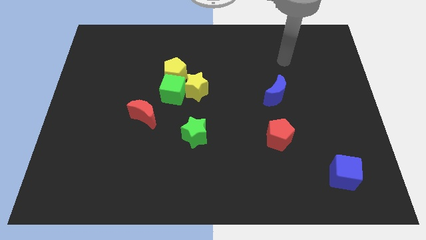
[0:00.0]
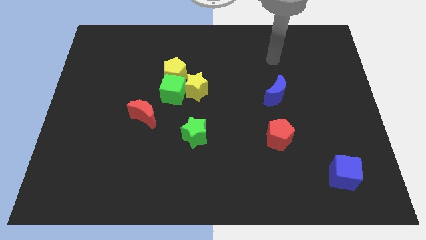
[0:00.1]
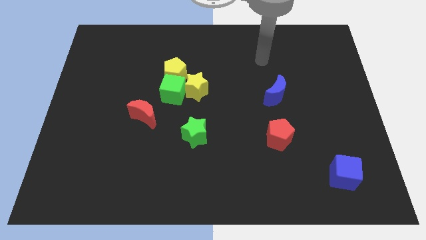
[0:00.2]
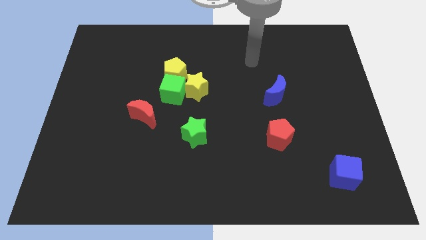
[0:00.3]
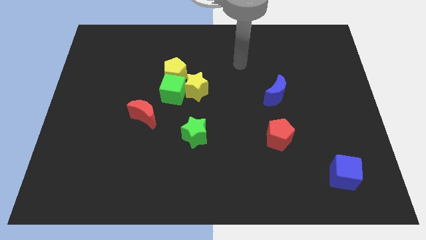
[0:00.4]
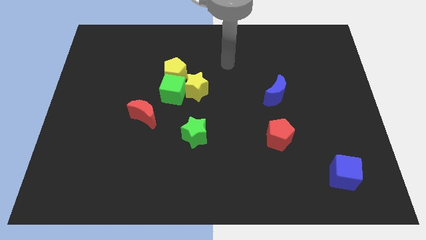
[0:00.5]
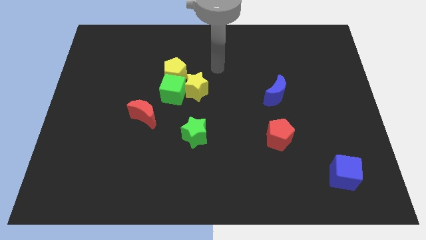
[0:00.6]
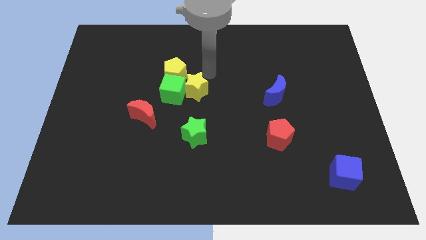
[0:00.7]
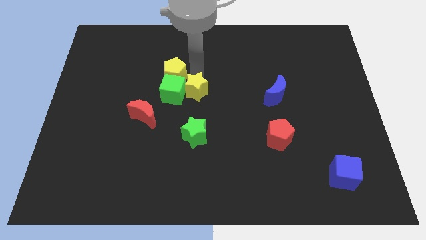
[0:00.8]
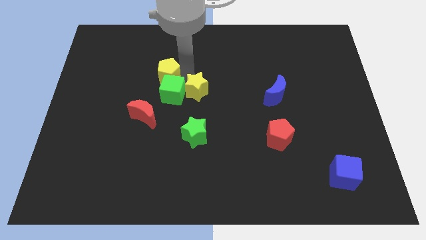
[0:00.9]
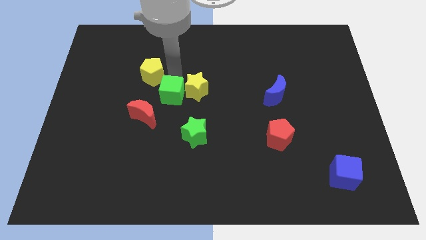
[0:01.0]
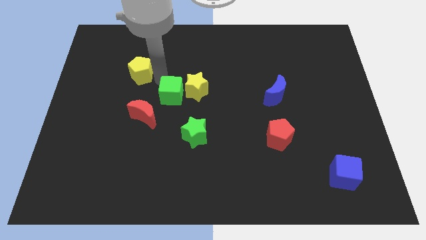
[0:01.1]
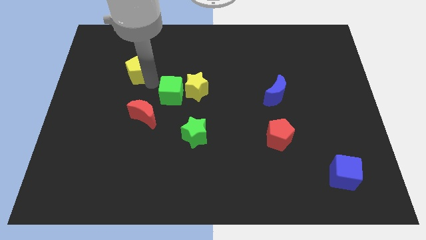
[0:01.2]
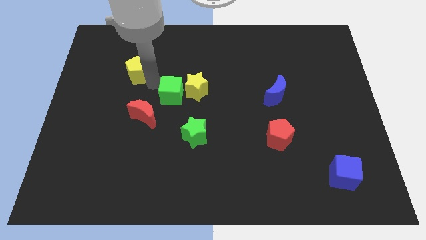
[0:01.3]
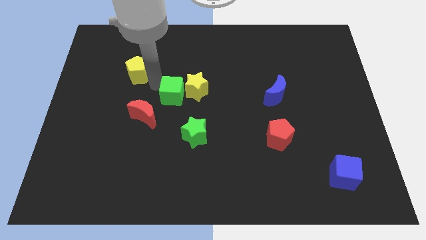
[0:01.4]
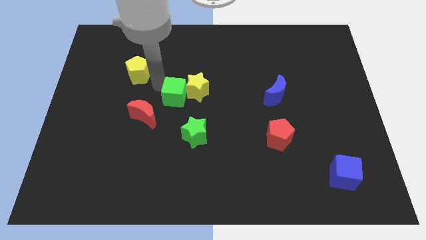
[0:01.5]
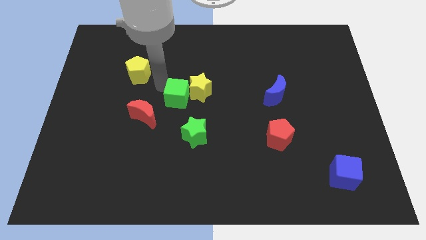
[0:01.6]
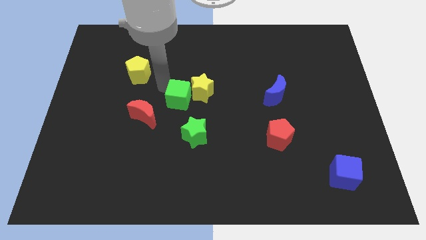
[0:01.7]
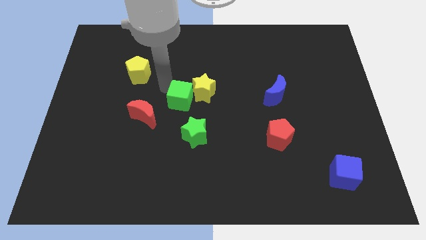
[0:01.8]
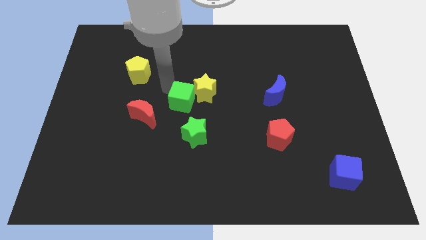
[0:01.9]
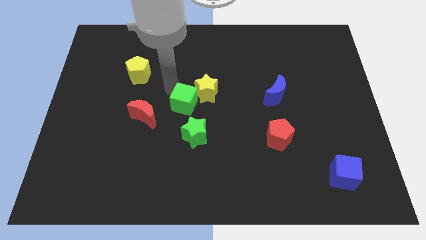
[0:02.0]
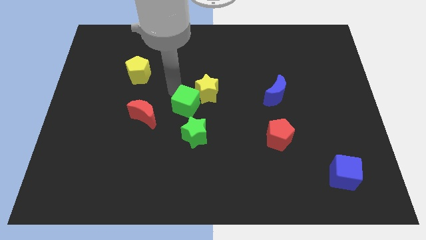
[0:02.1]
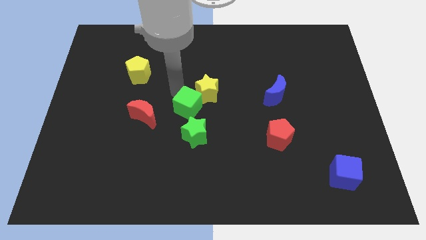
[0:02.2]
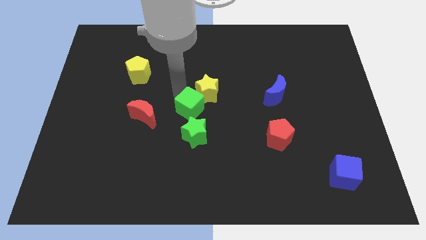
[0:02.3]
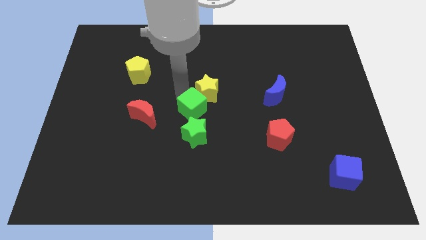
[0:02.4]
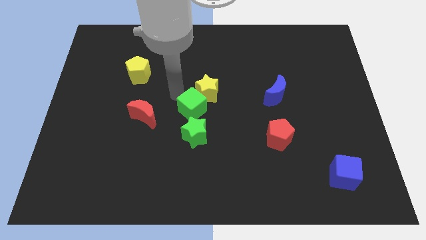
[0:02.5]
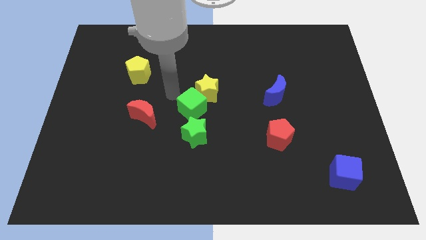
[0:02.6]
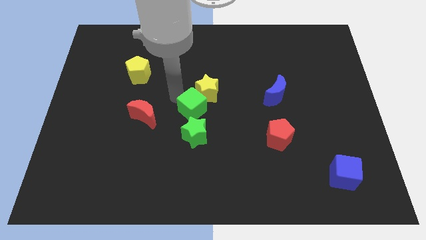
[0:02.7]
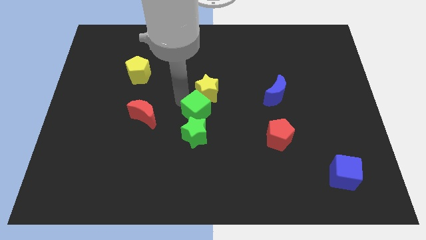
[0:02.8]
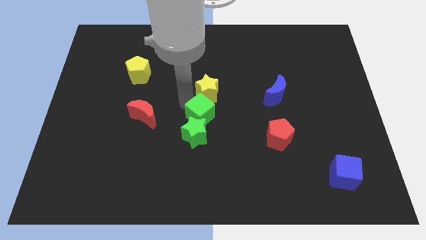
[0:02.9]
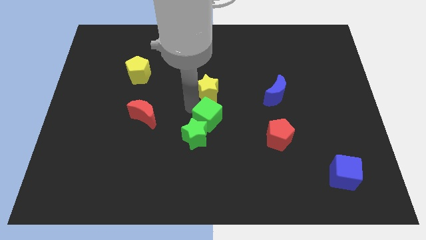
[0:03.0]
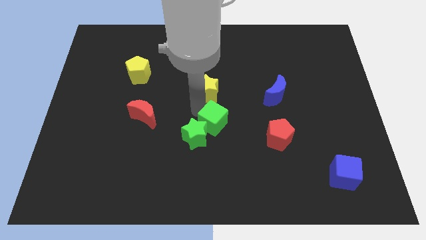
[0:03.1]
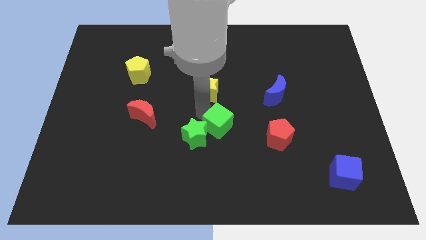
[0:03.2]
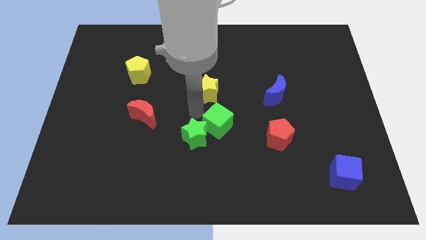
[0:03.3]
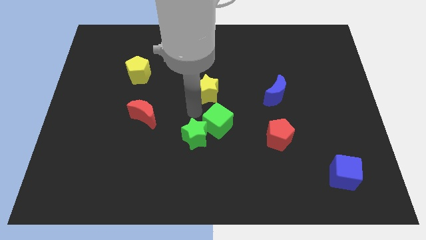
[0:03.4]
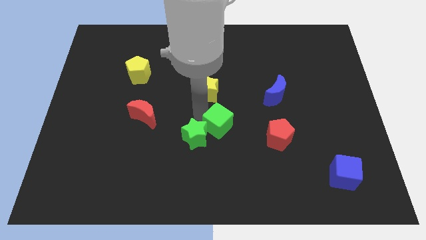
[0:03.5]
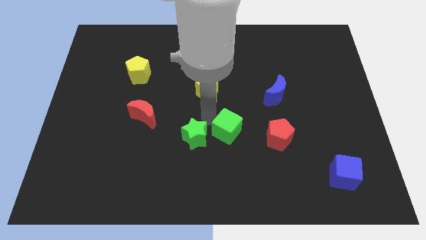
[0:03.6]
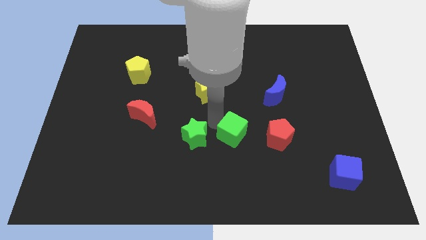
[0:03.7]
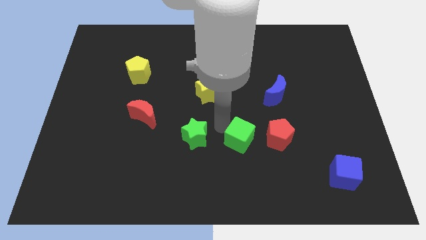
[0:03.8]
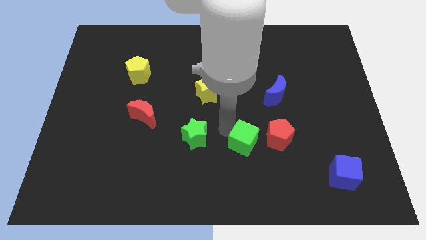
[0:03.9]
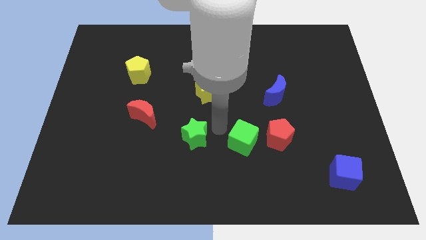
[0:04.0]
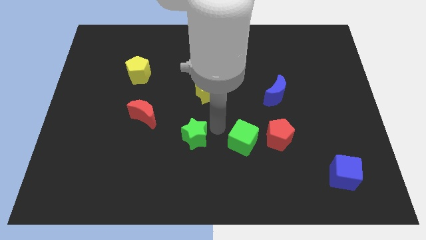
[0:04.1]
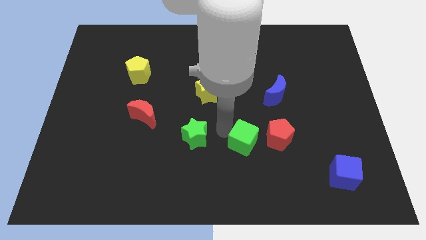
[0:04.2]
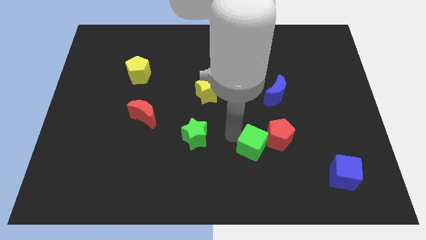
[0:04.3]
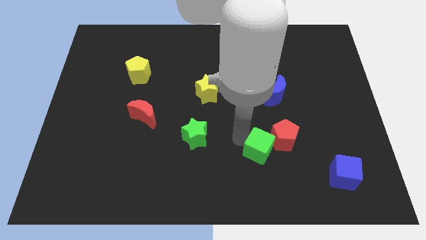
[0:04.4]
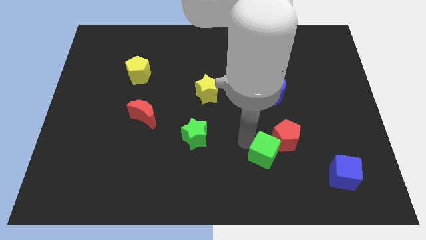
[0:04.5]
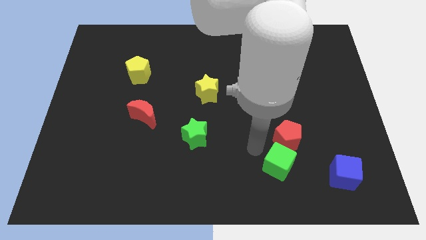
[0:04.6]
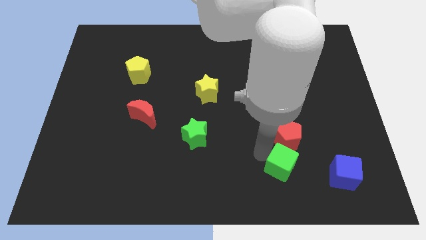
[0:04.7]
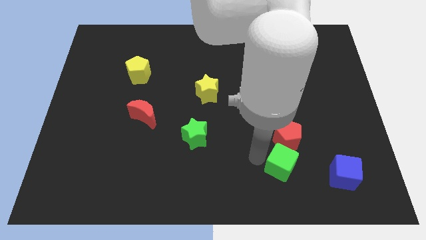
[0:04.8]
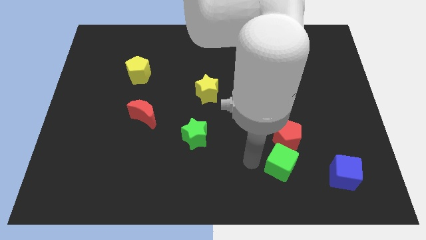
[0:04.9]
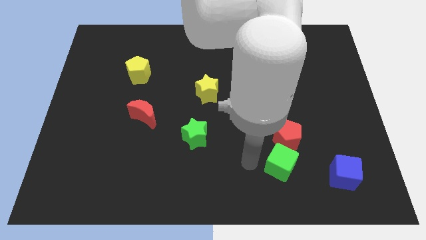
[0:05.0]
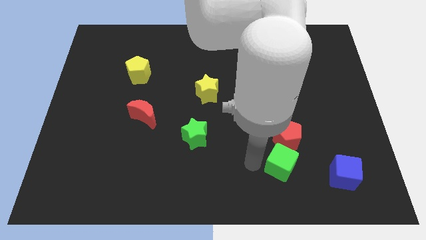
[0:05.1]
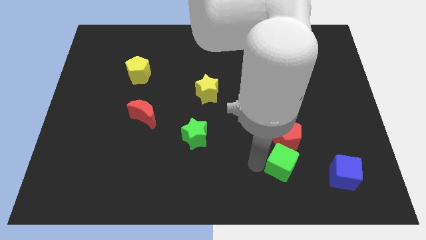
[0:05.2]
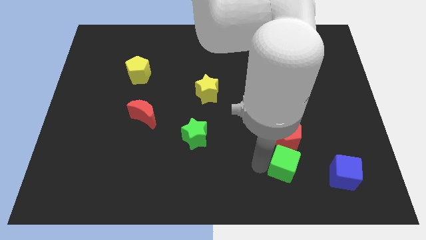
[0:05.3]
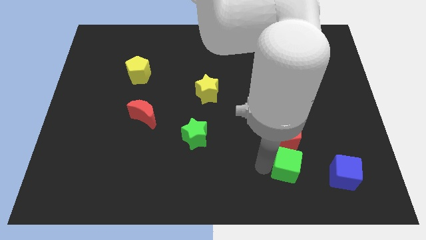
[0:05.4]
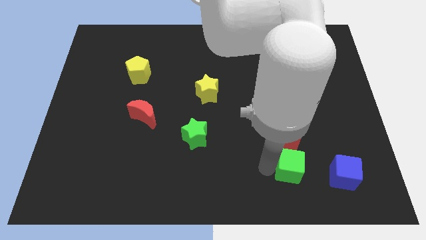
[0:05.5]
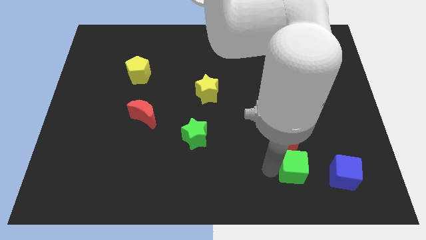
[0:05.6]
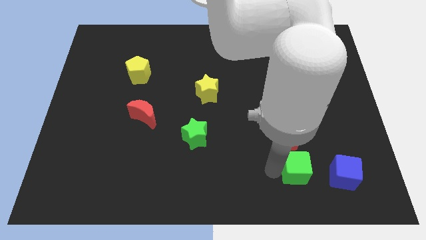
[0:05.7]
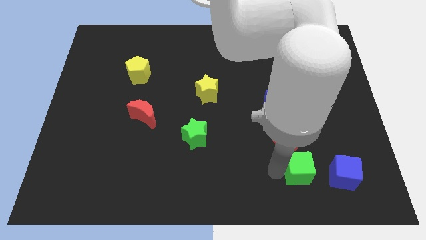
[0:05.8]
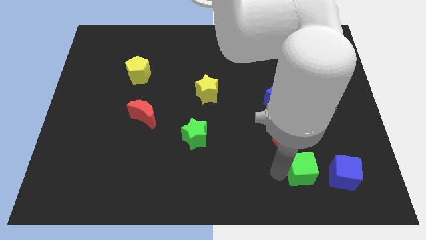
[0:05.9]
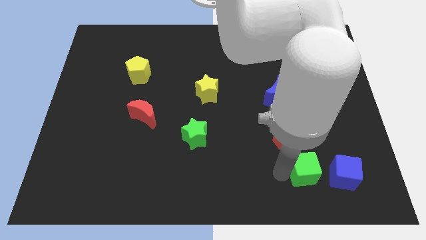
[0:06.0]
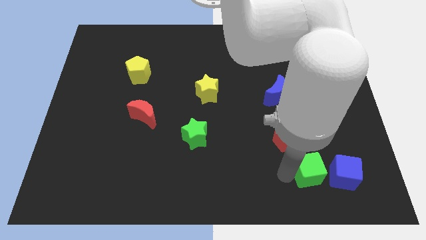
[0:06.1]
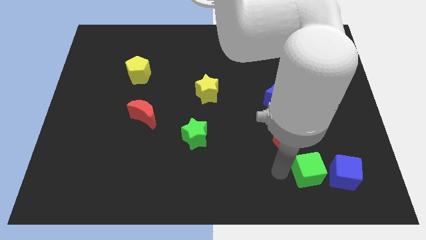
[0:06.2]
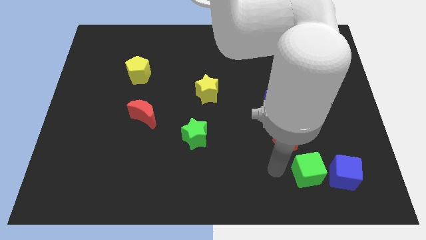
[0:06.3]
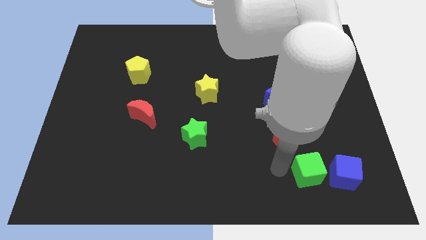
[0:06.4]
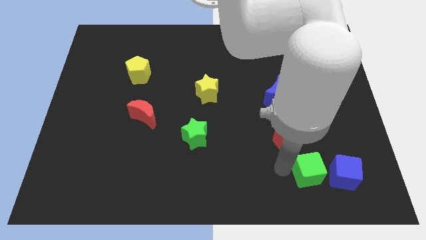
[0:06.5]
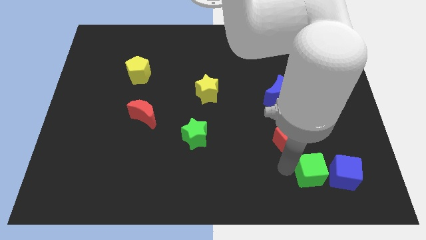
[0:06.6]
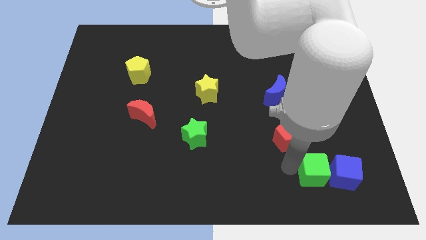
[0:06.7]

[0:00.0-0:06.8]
put the green cube towards the blue cube
